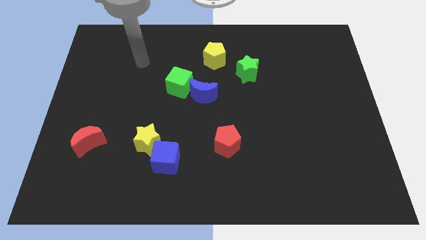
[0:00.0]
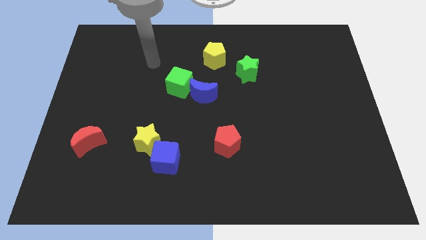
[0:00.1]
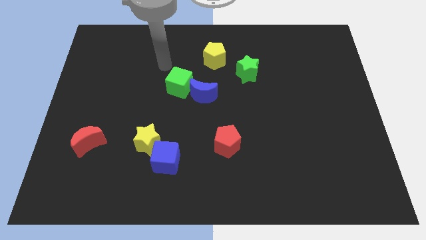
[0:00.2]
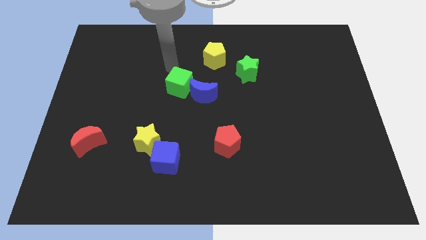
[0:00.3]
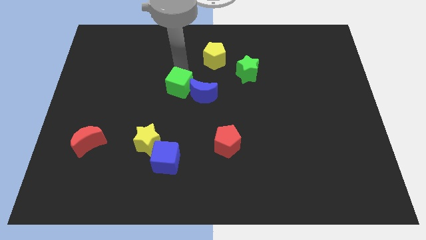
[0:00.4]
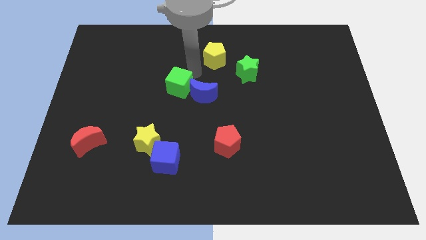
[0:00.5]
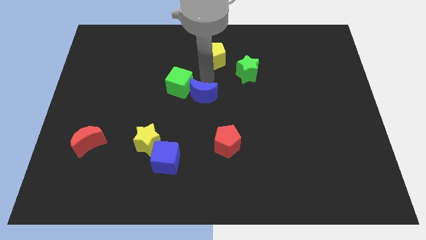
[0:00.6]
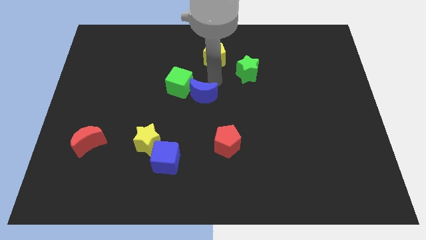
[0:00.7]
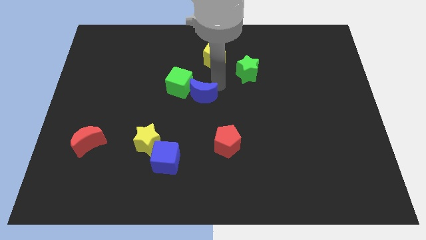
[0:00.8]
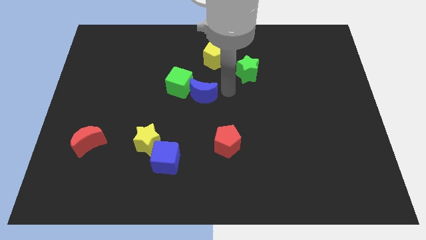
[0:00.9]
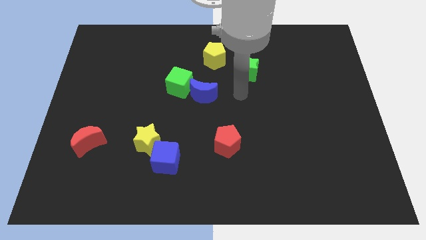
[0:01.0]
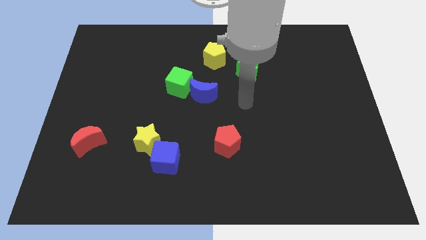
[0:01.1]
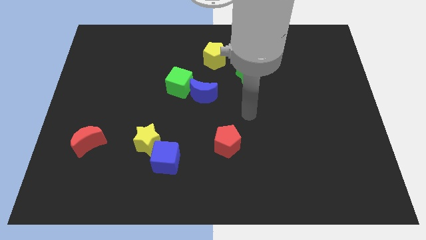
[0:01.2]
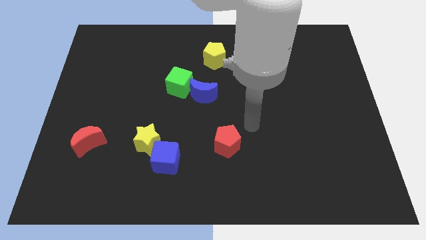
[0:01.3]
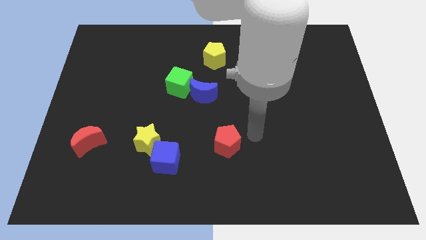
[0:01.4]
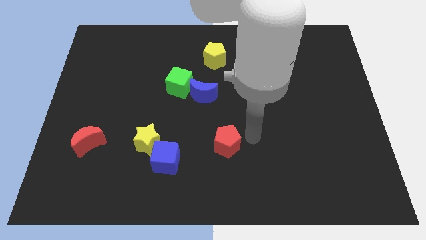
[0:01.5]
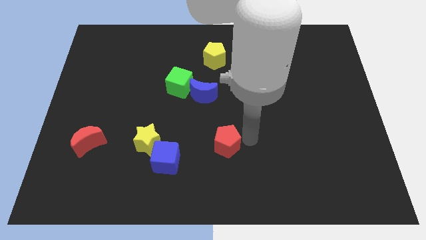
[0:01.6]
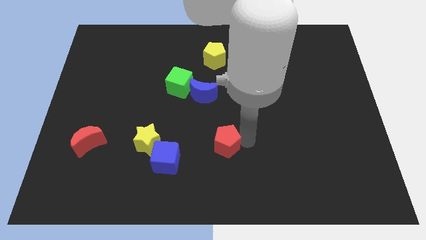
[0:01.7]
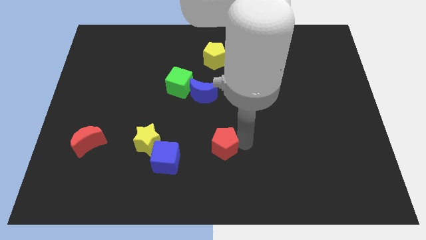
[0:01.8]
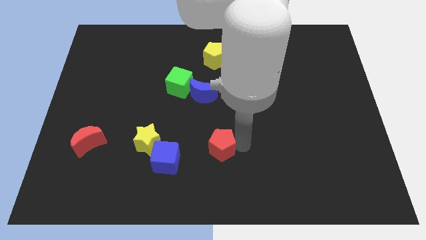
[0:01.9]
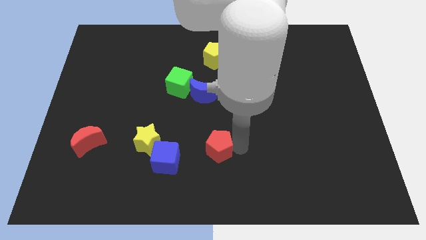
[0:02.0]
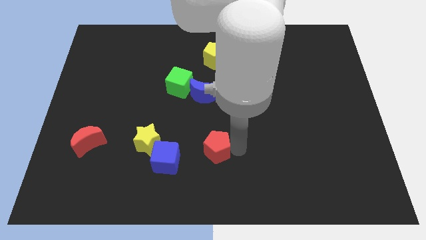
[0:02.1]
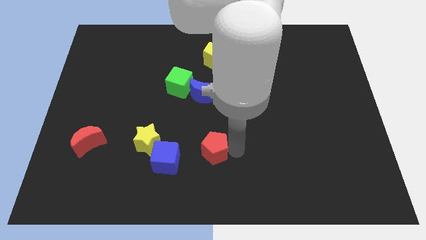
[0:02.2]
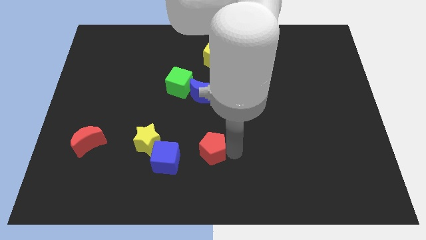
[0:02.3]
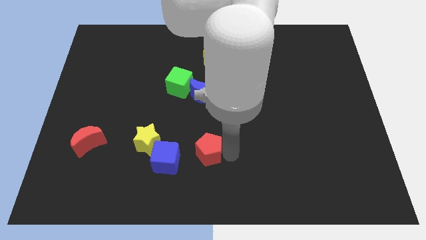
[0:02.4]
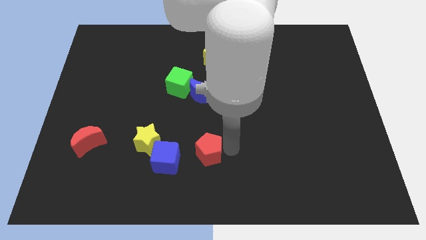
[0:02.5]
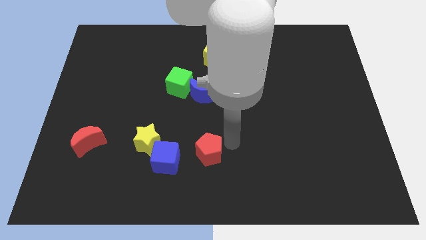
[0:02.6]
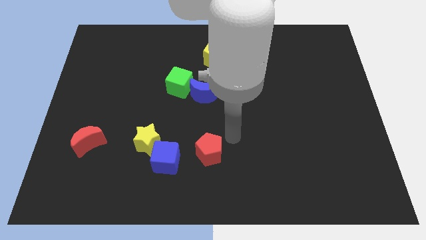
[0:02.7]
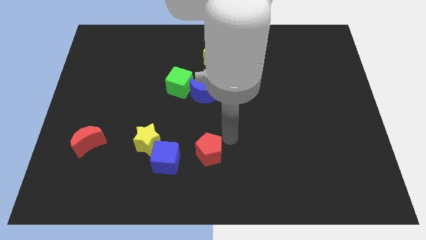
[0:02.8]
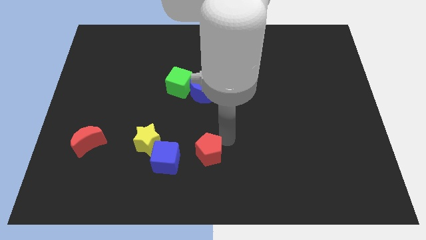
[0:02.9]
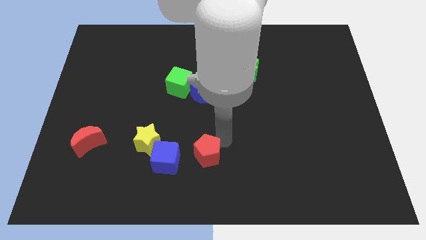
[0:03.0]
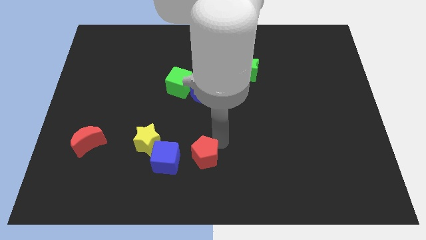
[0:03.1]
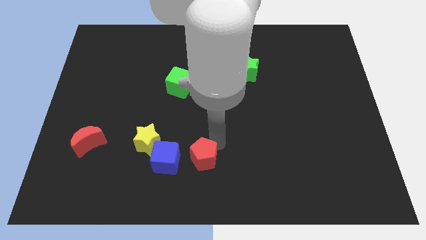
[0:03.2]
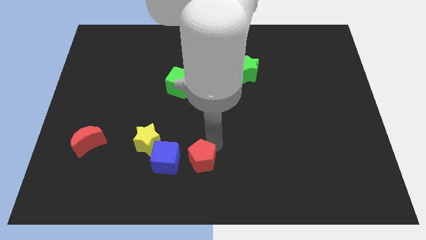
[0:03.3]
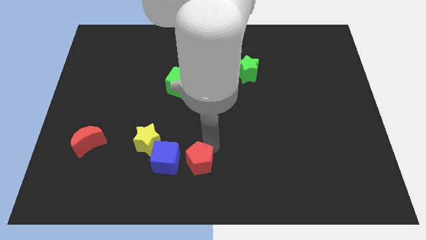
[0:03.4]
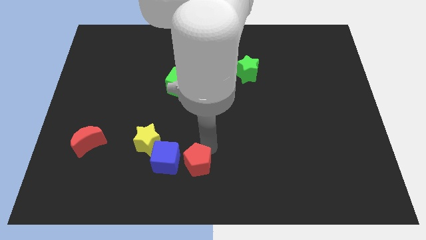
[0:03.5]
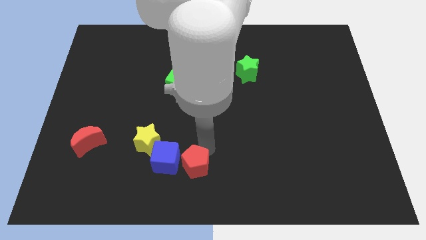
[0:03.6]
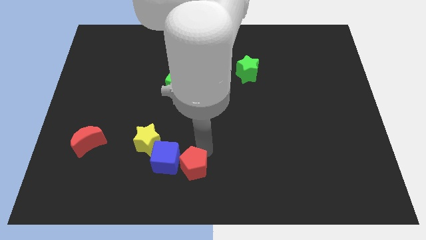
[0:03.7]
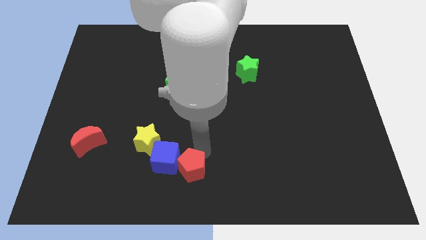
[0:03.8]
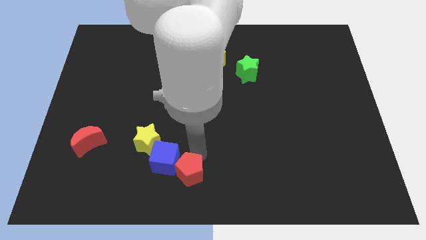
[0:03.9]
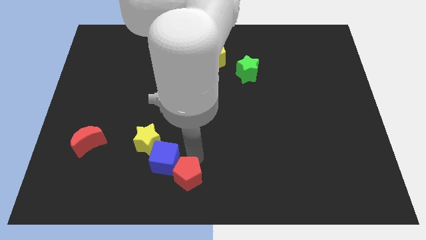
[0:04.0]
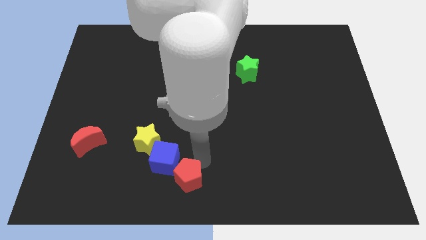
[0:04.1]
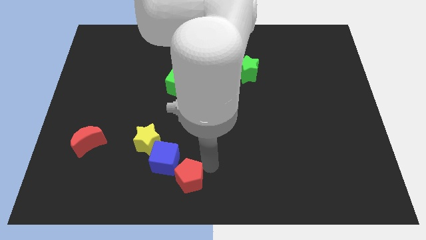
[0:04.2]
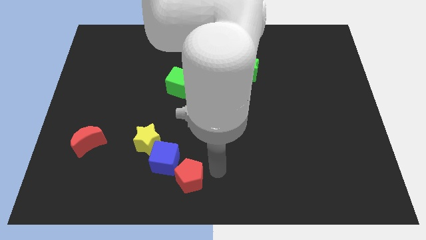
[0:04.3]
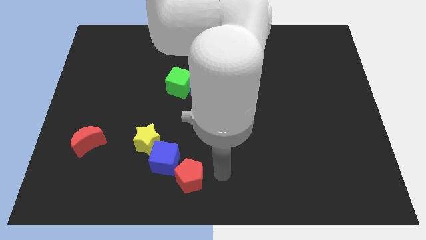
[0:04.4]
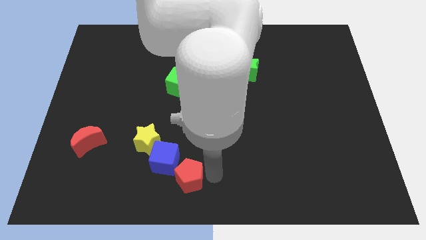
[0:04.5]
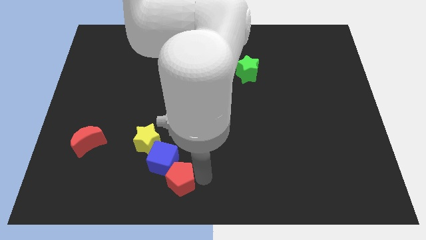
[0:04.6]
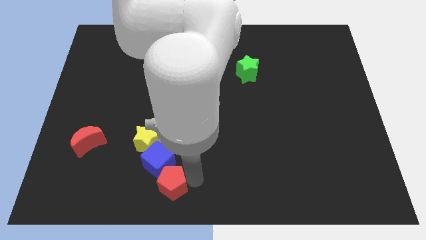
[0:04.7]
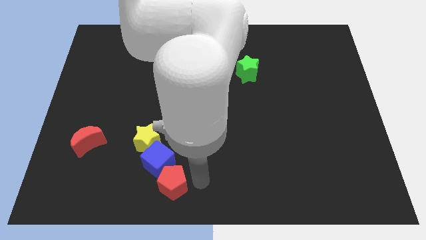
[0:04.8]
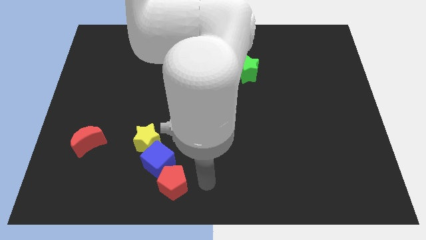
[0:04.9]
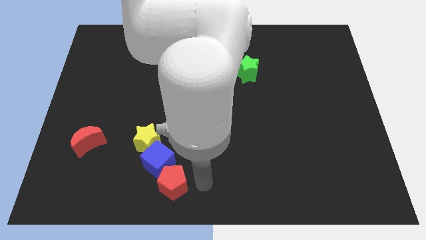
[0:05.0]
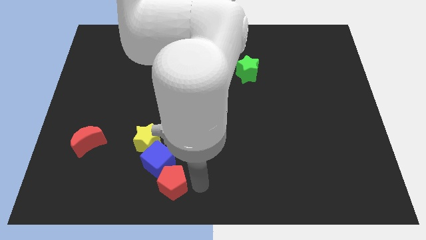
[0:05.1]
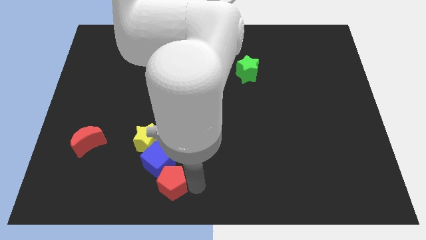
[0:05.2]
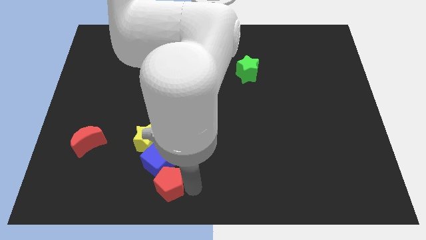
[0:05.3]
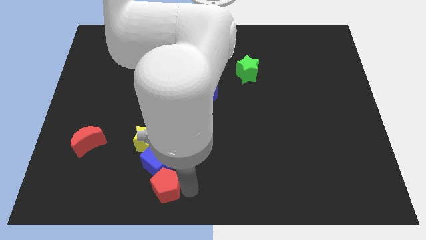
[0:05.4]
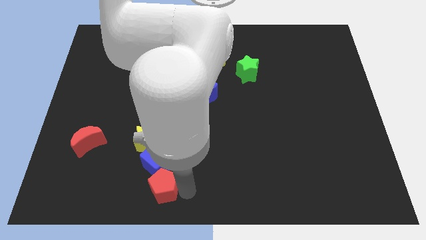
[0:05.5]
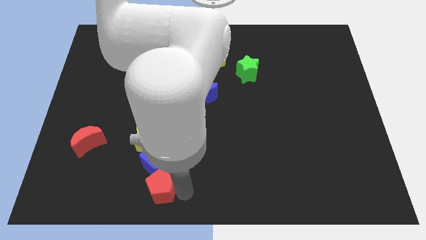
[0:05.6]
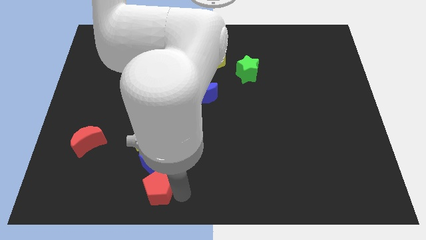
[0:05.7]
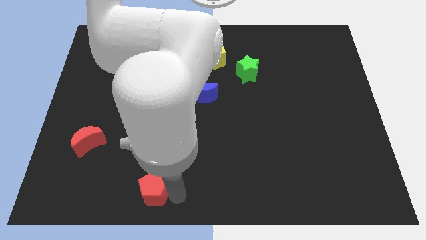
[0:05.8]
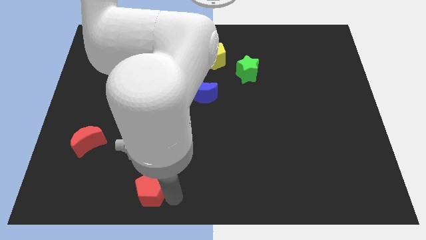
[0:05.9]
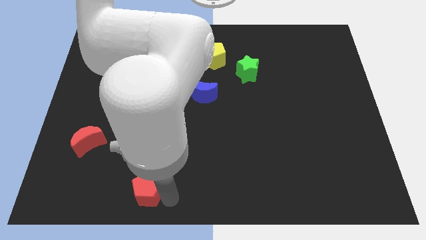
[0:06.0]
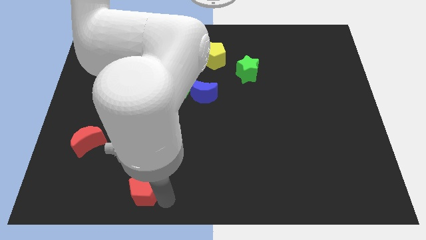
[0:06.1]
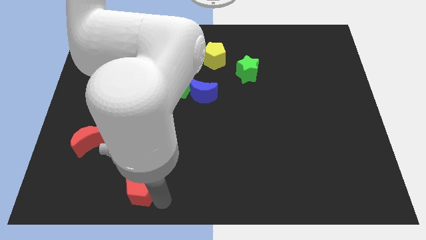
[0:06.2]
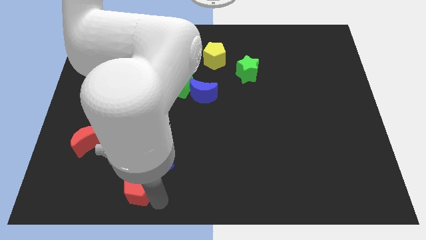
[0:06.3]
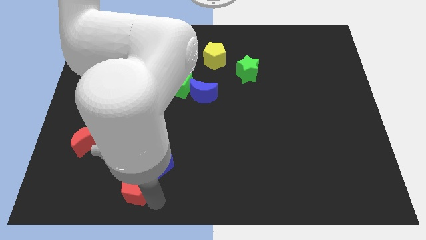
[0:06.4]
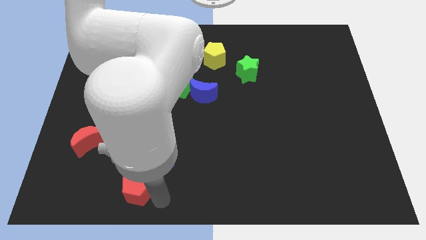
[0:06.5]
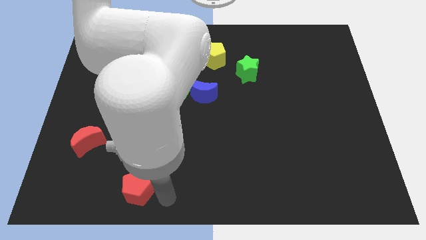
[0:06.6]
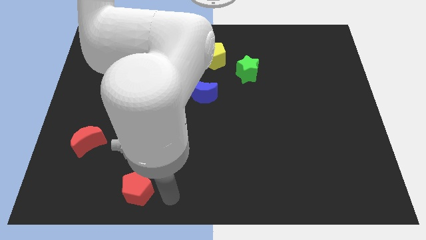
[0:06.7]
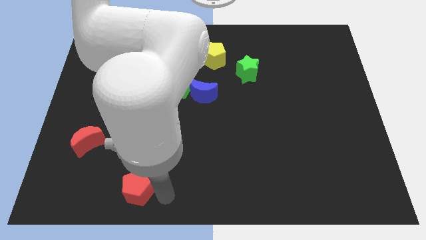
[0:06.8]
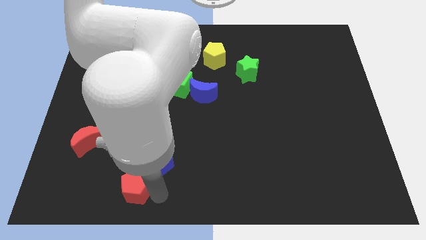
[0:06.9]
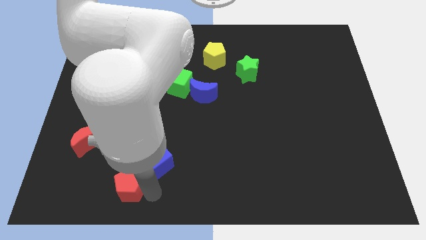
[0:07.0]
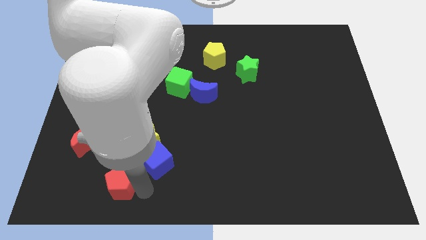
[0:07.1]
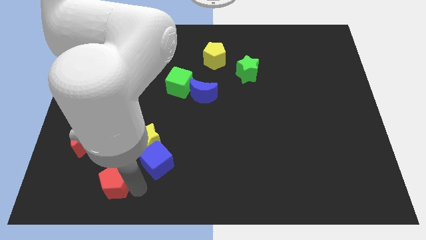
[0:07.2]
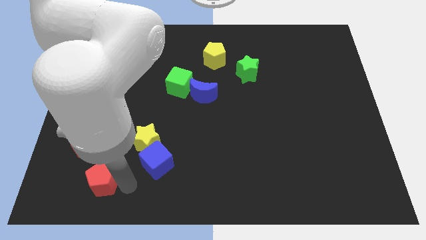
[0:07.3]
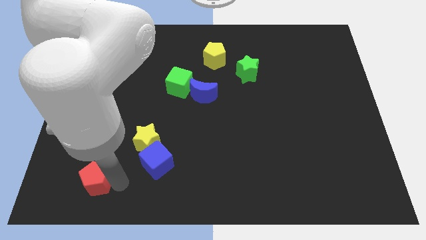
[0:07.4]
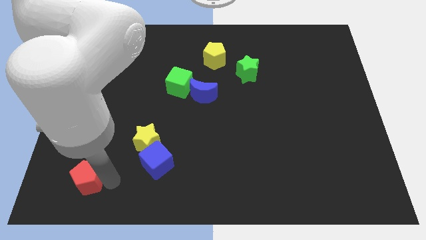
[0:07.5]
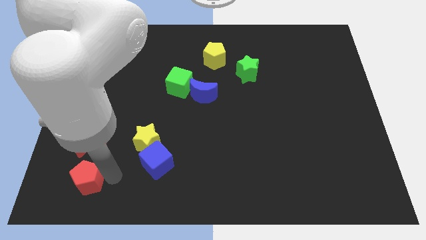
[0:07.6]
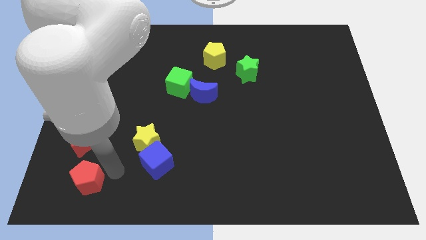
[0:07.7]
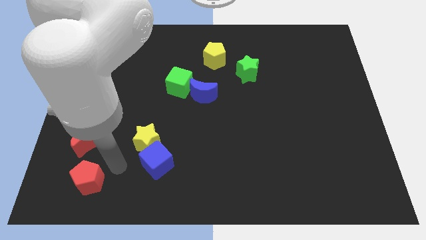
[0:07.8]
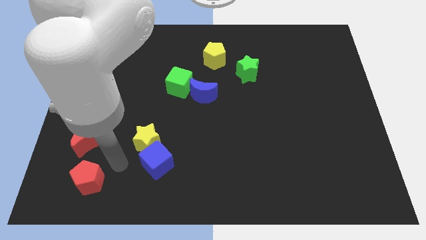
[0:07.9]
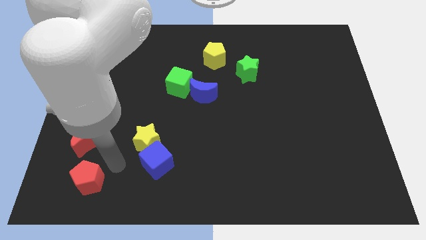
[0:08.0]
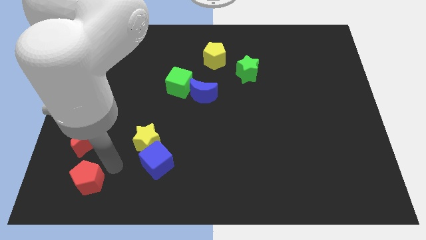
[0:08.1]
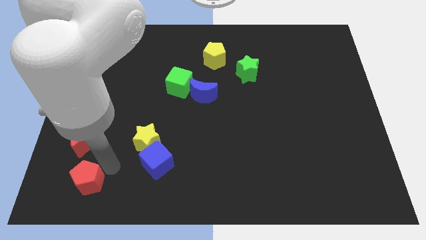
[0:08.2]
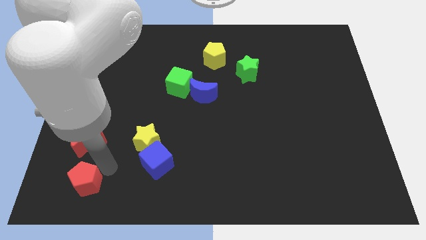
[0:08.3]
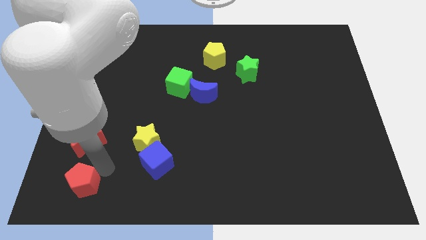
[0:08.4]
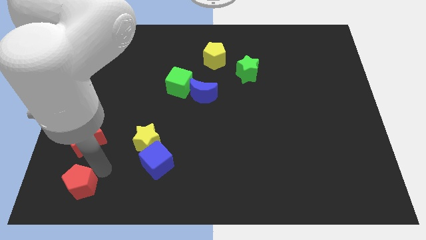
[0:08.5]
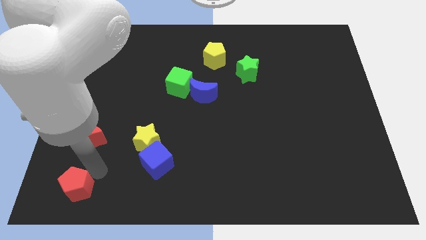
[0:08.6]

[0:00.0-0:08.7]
move the red pentagon to the bottom left corner
